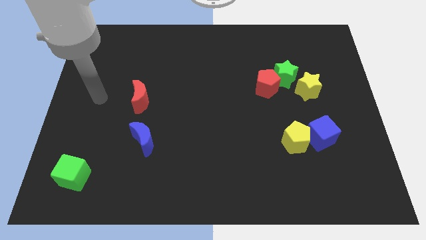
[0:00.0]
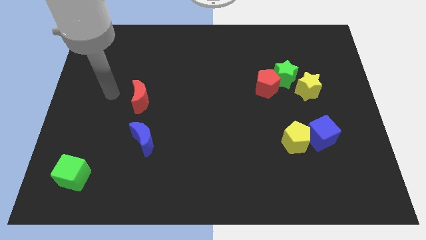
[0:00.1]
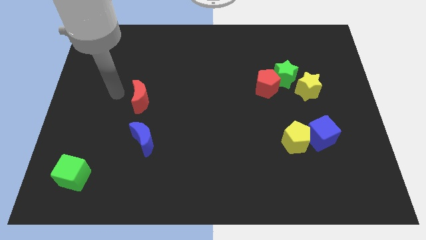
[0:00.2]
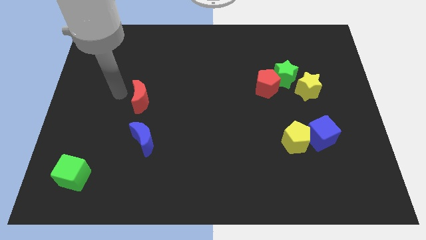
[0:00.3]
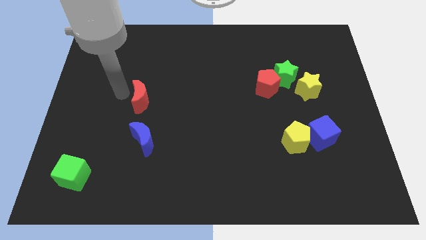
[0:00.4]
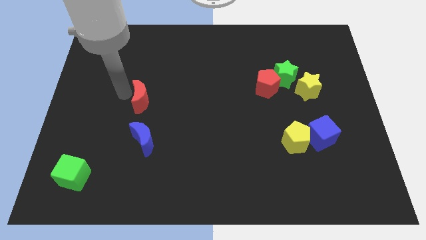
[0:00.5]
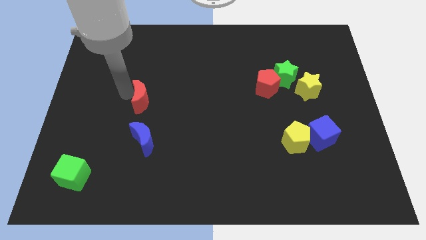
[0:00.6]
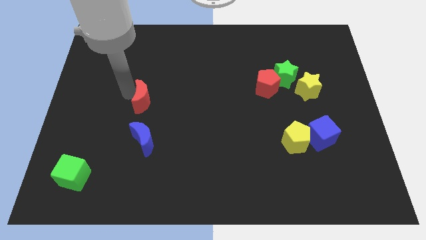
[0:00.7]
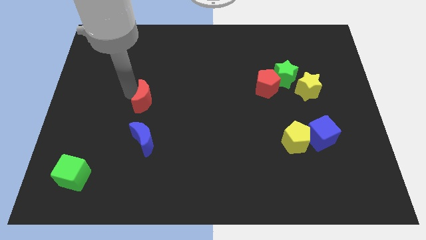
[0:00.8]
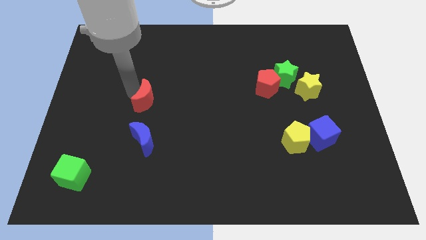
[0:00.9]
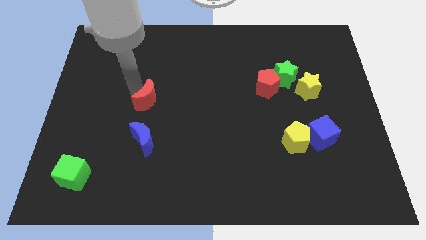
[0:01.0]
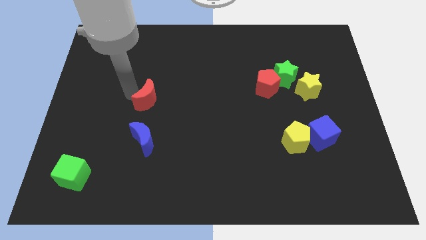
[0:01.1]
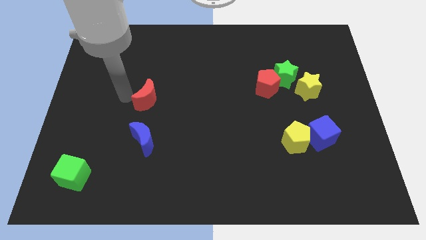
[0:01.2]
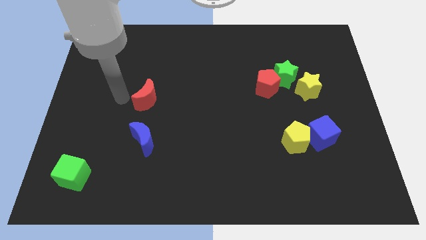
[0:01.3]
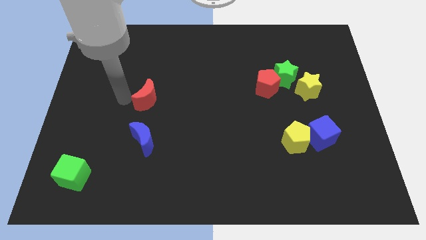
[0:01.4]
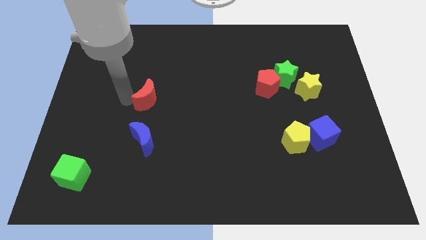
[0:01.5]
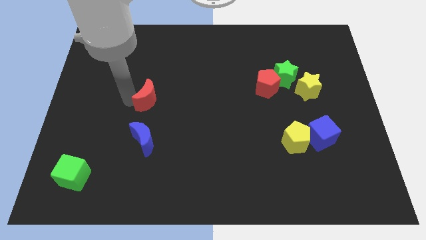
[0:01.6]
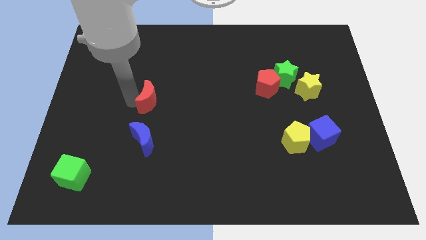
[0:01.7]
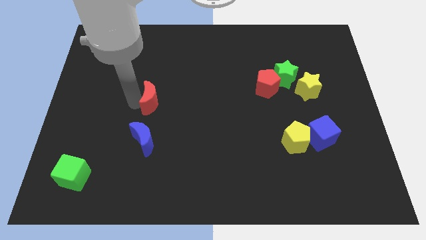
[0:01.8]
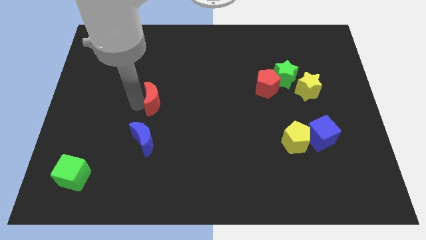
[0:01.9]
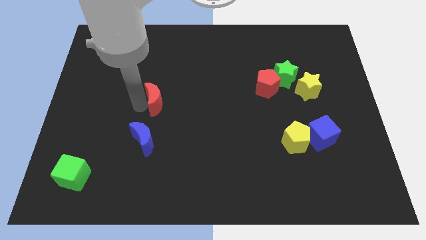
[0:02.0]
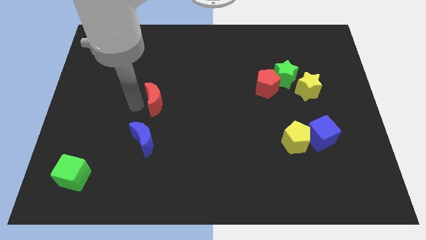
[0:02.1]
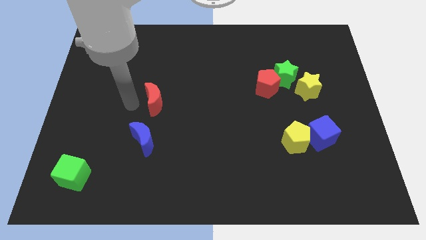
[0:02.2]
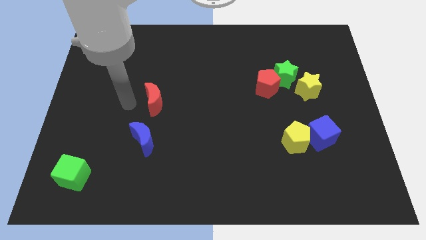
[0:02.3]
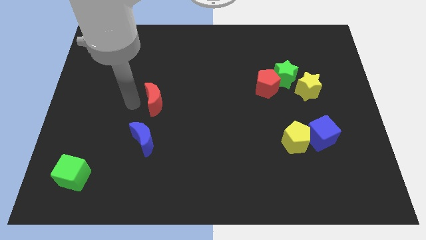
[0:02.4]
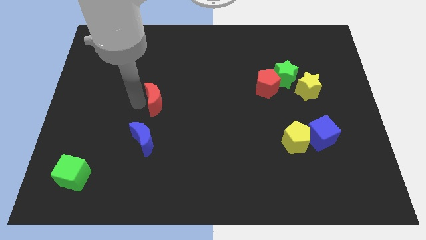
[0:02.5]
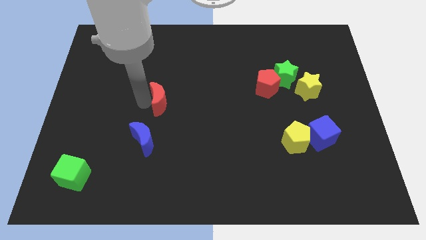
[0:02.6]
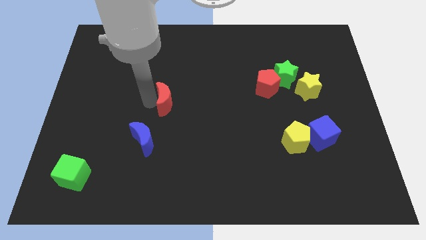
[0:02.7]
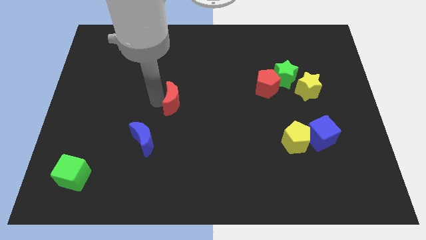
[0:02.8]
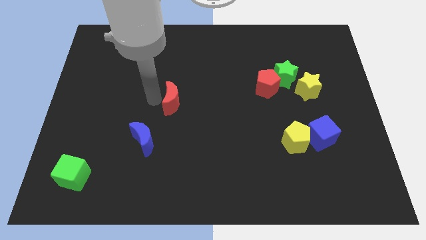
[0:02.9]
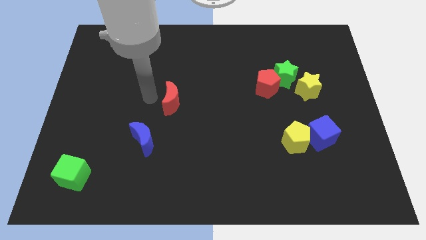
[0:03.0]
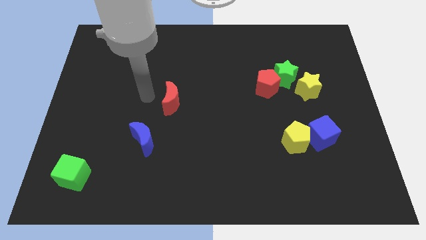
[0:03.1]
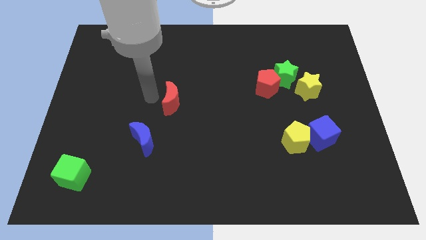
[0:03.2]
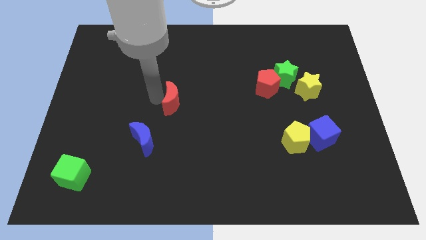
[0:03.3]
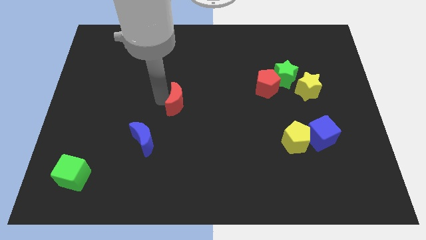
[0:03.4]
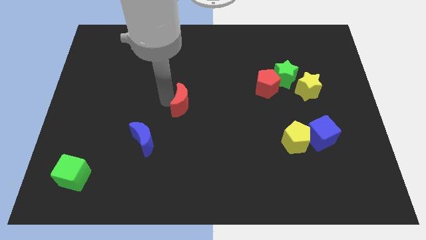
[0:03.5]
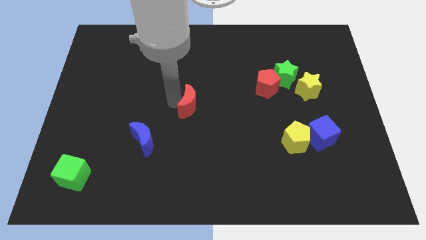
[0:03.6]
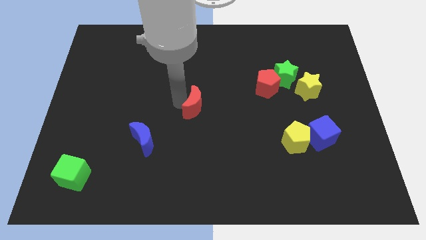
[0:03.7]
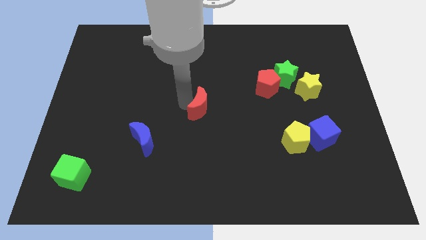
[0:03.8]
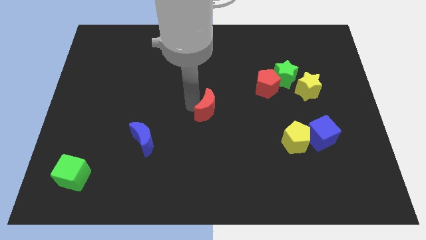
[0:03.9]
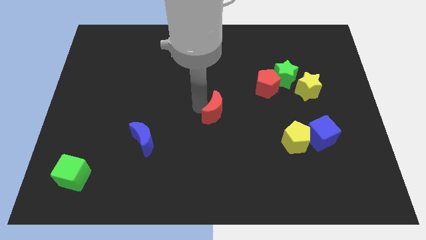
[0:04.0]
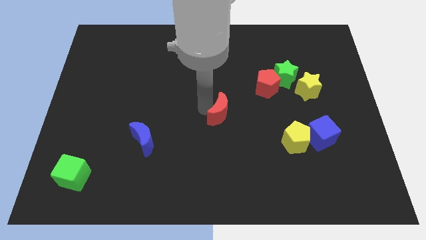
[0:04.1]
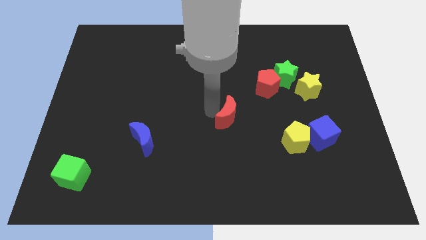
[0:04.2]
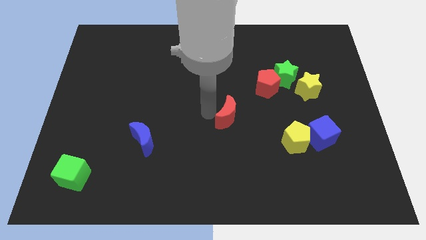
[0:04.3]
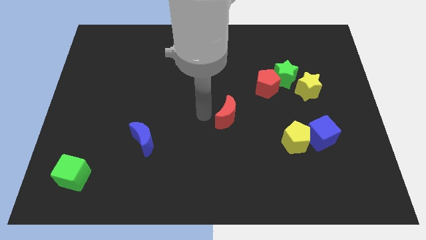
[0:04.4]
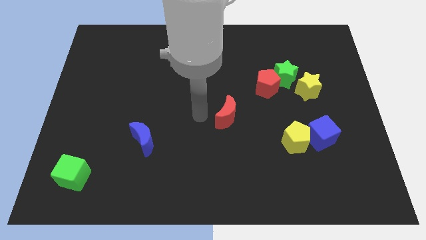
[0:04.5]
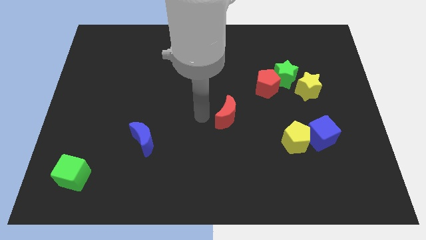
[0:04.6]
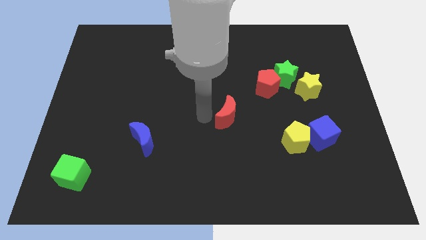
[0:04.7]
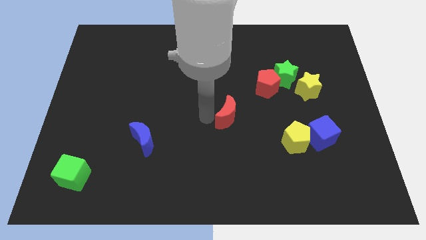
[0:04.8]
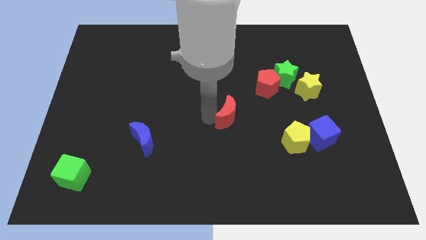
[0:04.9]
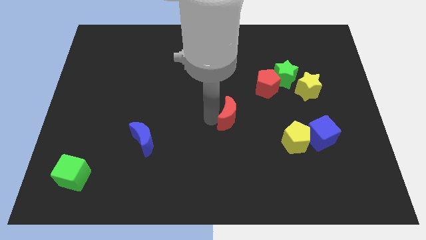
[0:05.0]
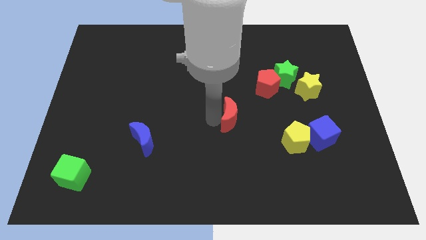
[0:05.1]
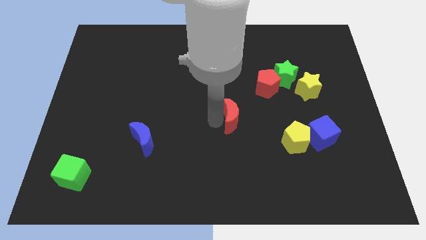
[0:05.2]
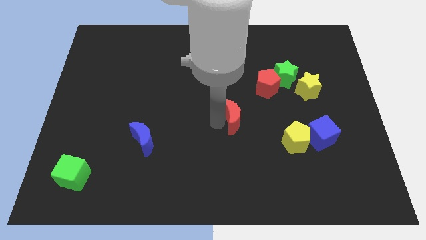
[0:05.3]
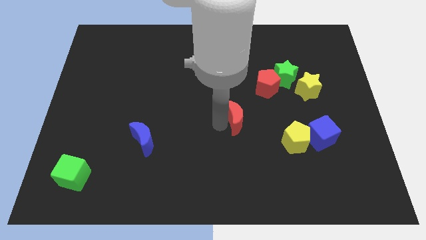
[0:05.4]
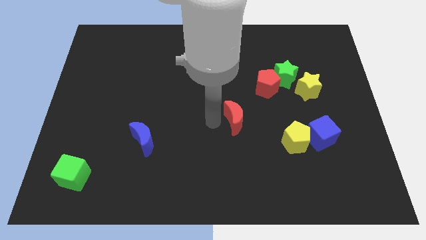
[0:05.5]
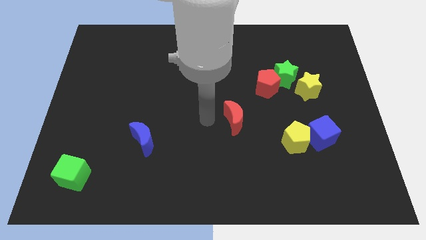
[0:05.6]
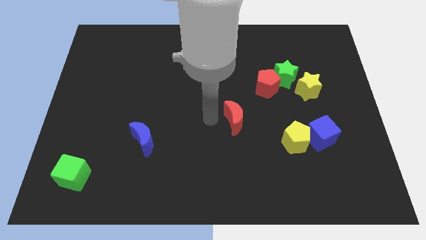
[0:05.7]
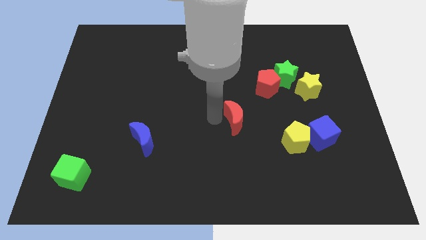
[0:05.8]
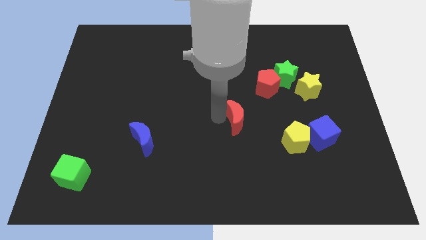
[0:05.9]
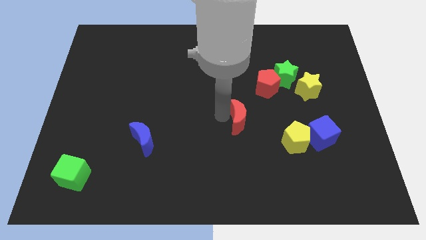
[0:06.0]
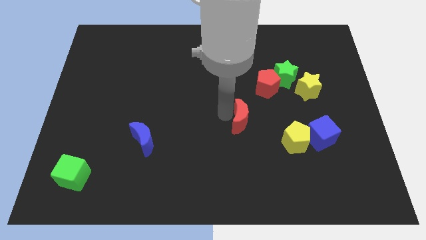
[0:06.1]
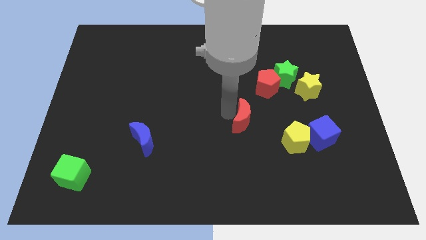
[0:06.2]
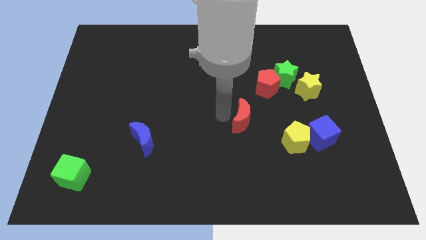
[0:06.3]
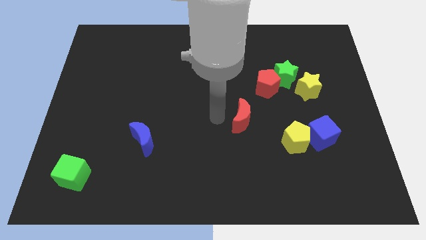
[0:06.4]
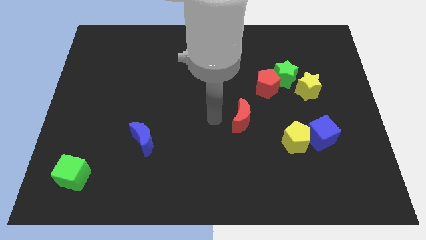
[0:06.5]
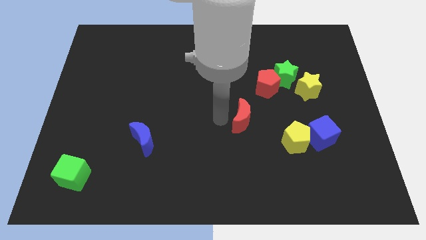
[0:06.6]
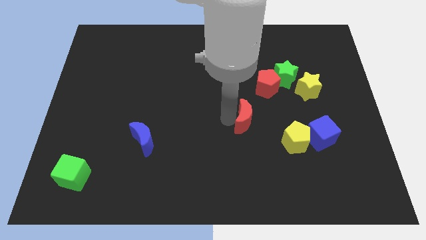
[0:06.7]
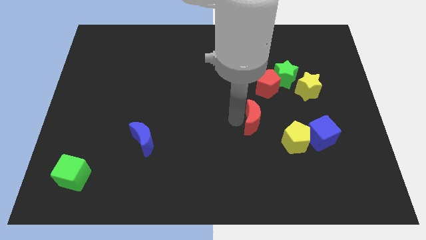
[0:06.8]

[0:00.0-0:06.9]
slide the red moon to the bottom side of the red pentagon
